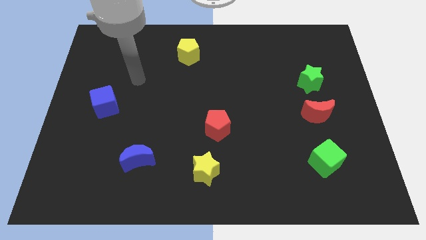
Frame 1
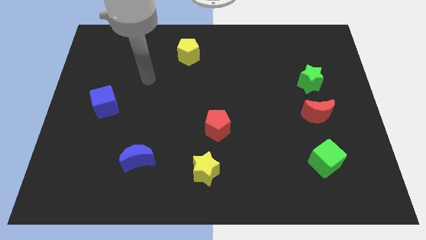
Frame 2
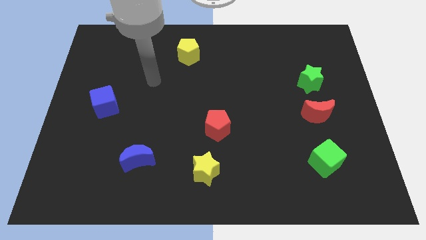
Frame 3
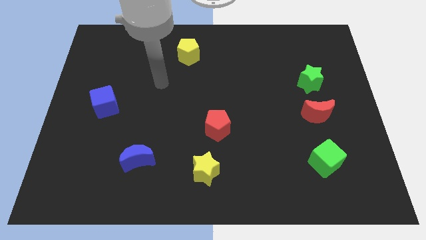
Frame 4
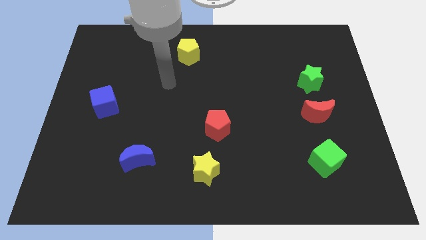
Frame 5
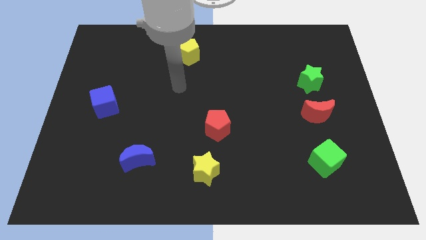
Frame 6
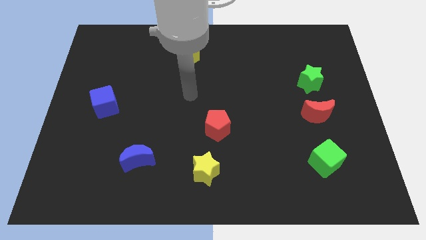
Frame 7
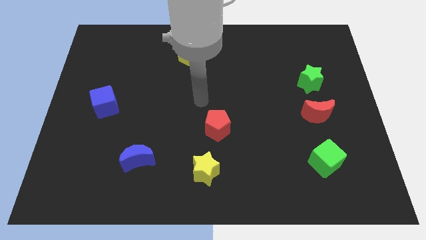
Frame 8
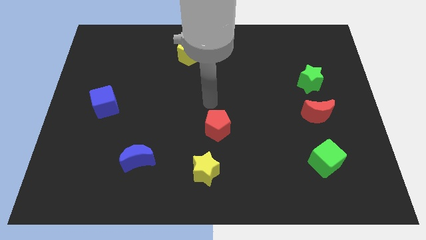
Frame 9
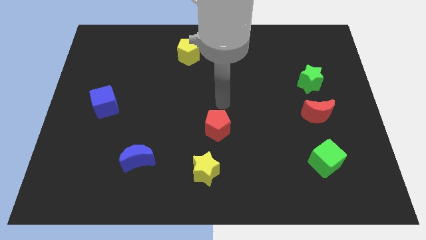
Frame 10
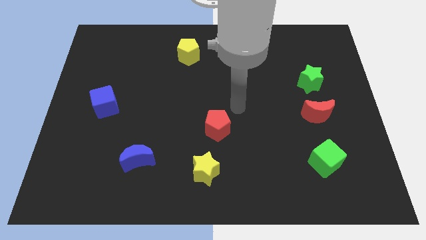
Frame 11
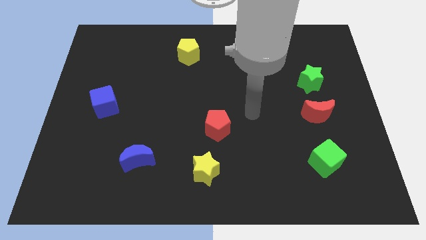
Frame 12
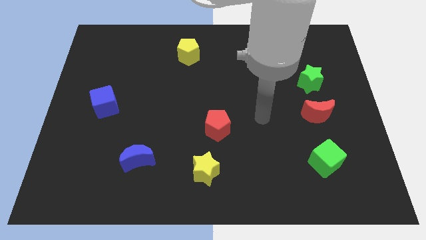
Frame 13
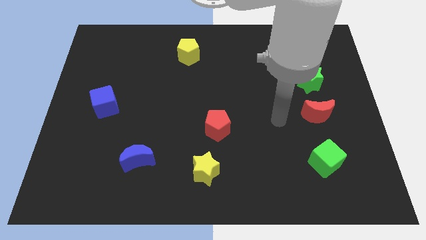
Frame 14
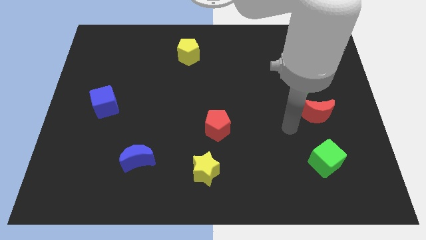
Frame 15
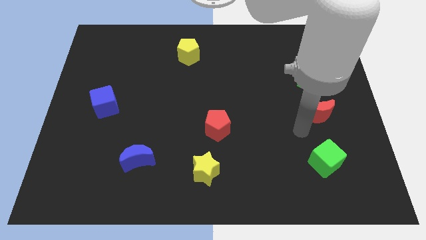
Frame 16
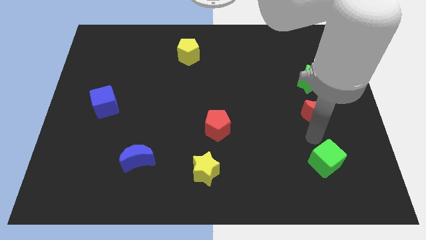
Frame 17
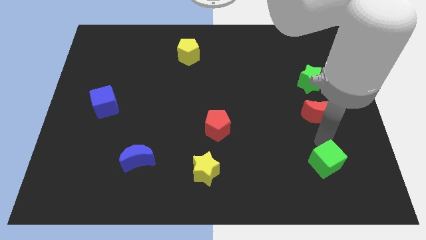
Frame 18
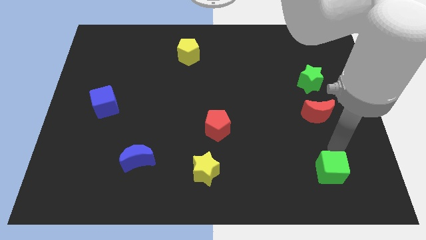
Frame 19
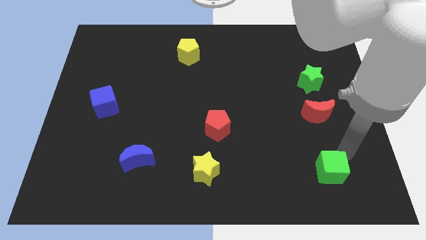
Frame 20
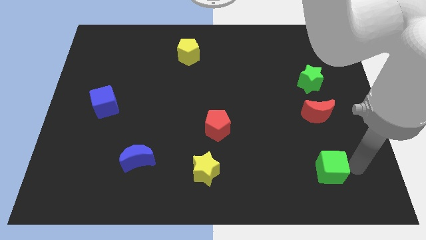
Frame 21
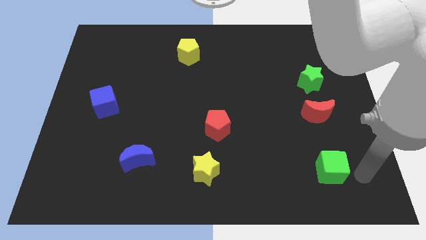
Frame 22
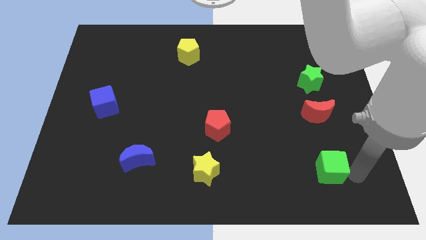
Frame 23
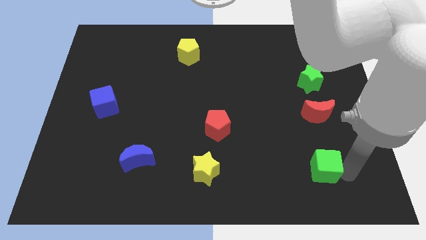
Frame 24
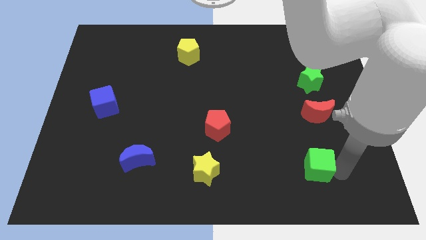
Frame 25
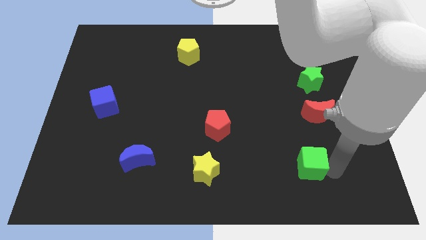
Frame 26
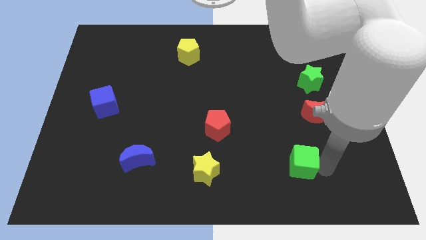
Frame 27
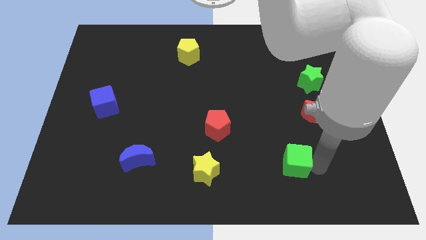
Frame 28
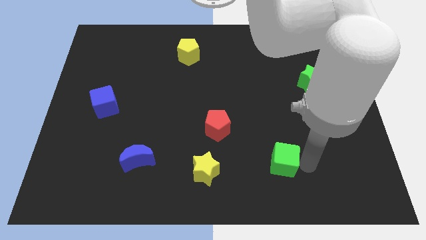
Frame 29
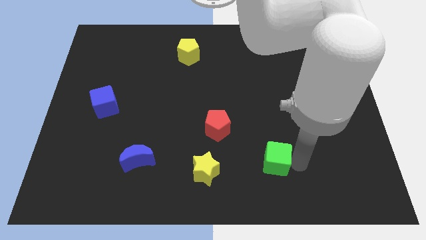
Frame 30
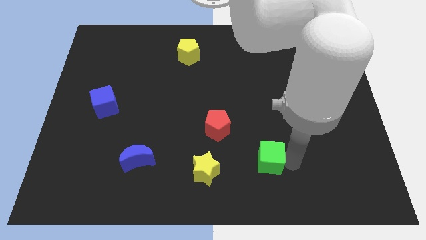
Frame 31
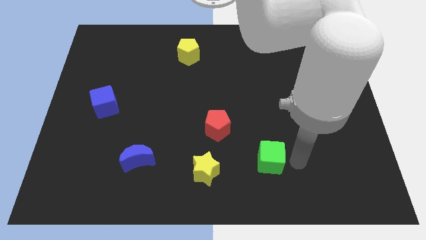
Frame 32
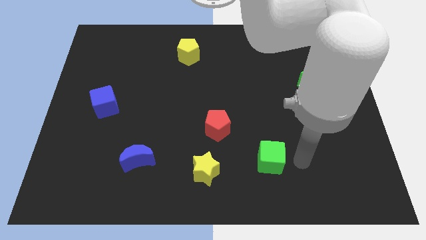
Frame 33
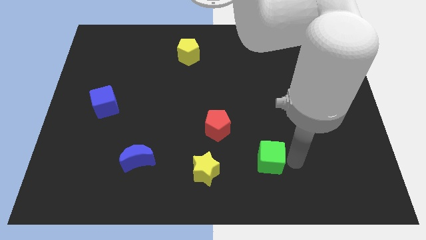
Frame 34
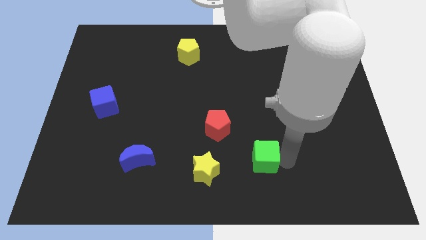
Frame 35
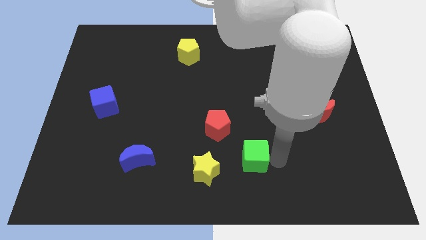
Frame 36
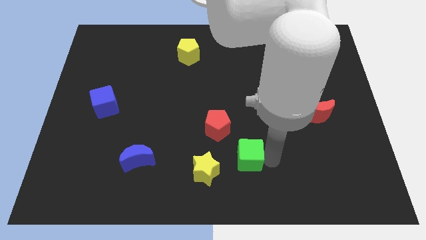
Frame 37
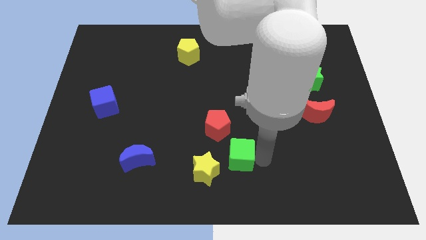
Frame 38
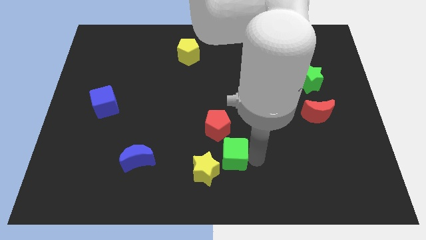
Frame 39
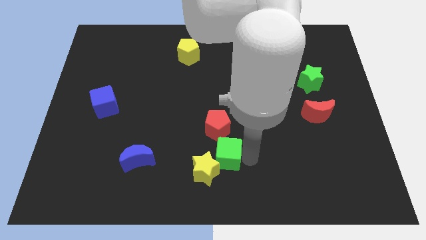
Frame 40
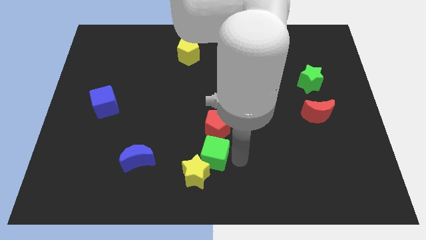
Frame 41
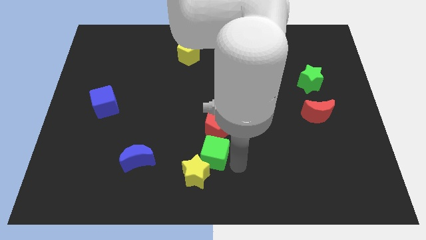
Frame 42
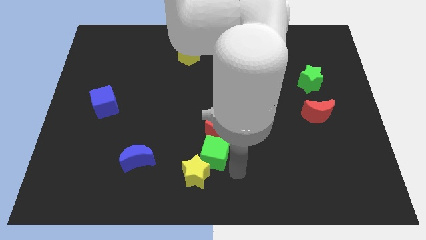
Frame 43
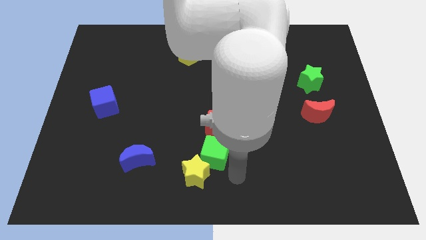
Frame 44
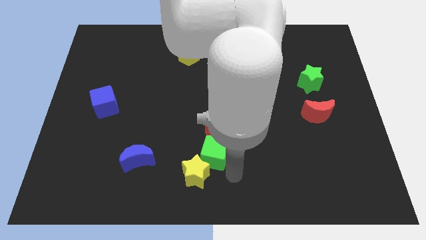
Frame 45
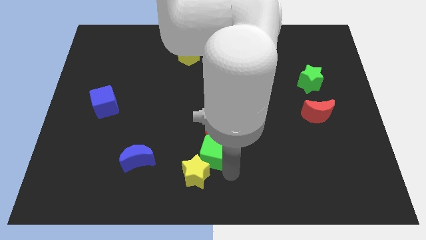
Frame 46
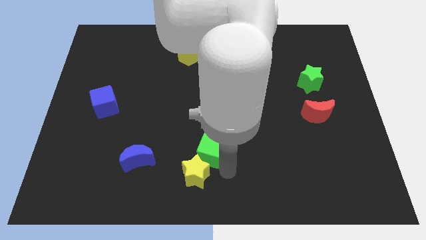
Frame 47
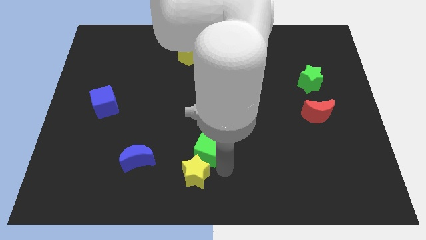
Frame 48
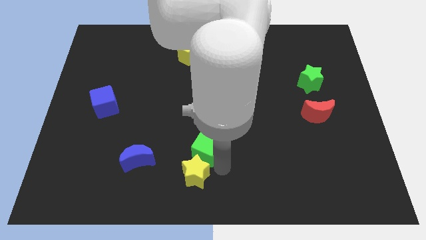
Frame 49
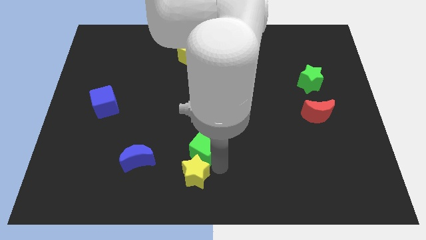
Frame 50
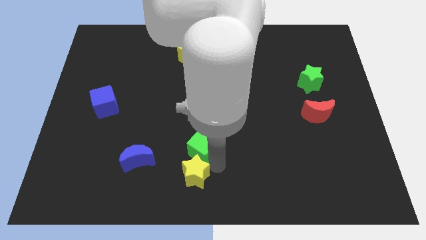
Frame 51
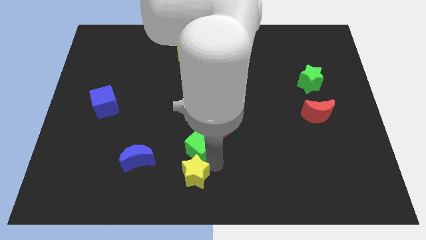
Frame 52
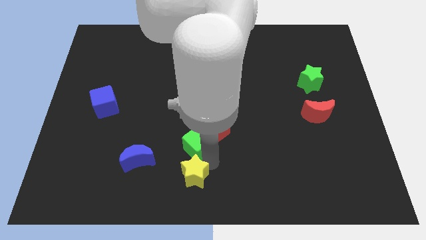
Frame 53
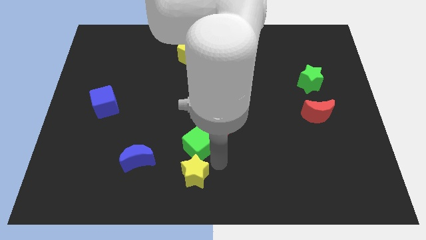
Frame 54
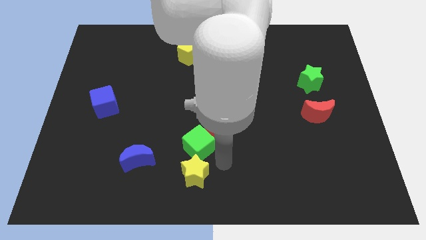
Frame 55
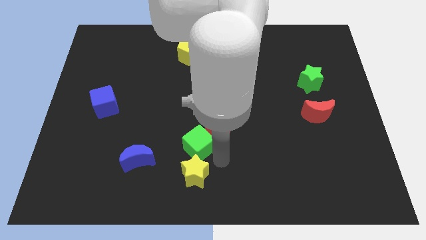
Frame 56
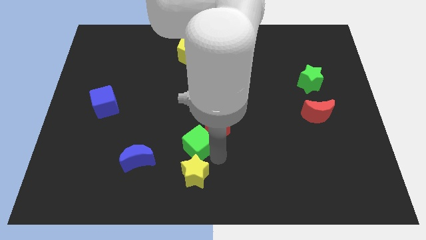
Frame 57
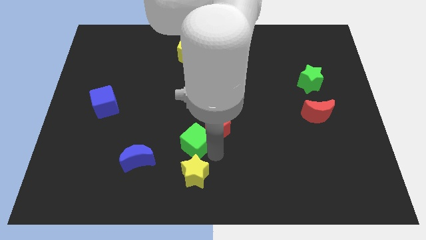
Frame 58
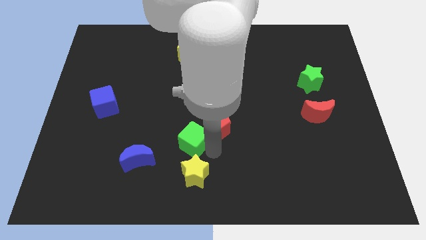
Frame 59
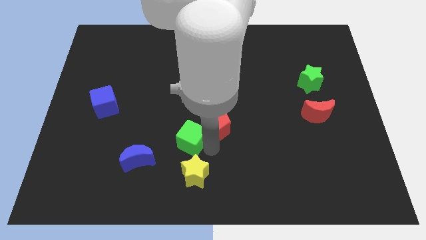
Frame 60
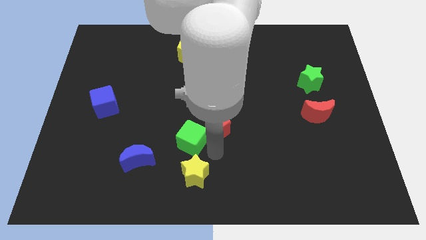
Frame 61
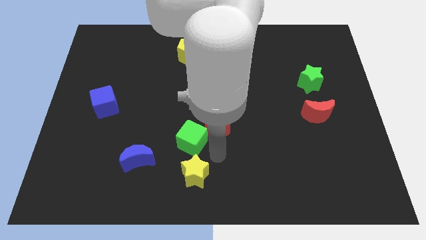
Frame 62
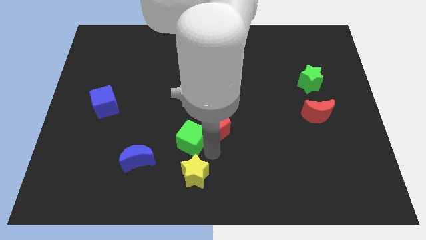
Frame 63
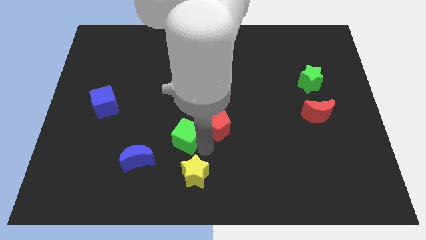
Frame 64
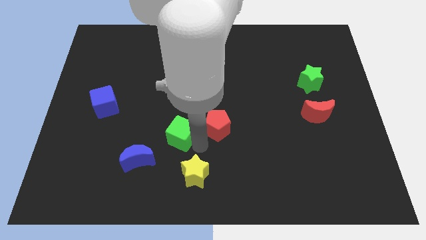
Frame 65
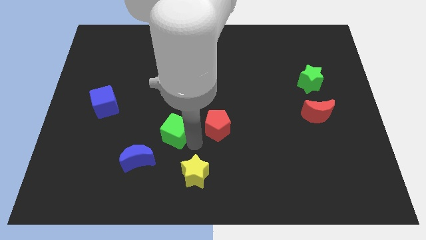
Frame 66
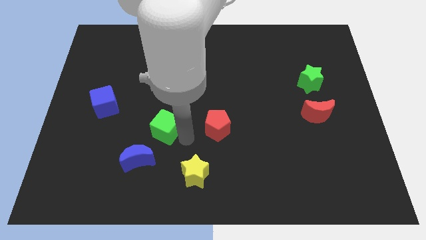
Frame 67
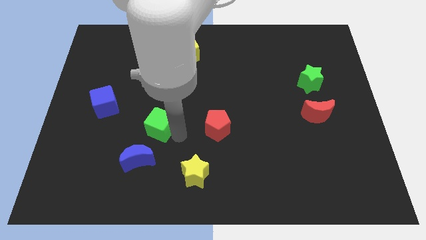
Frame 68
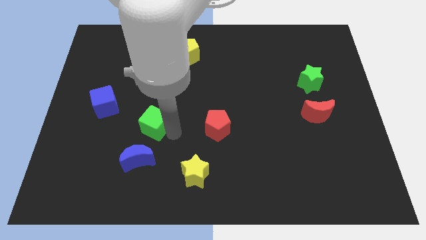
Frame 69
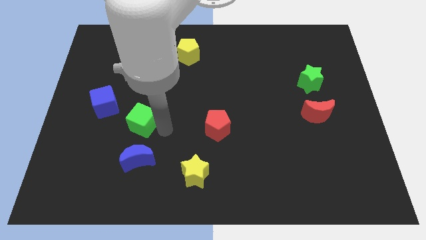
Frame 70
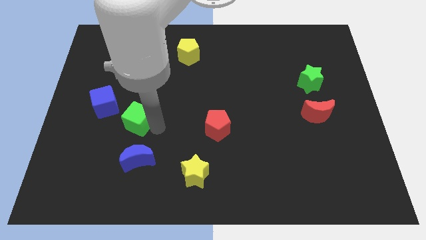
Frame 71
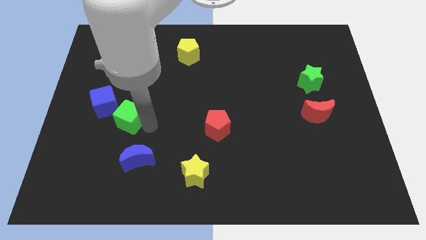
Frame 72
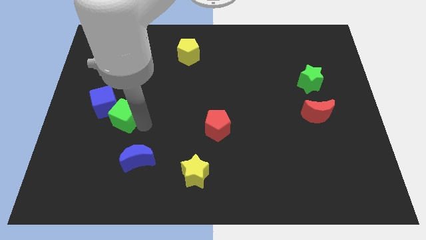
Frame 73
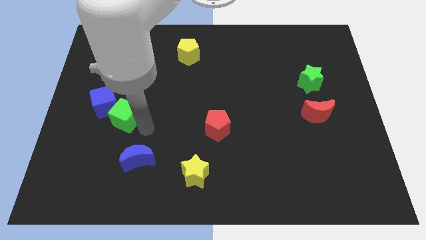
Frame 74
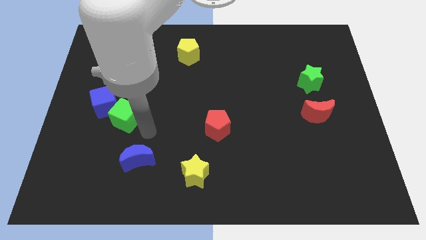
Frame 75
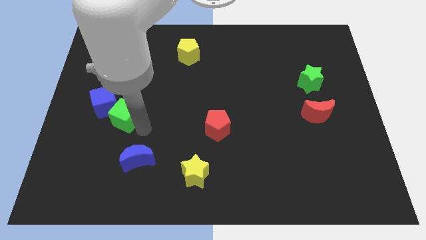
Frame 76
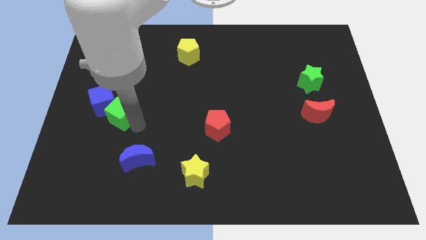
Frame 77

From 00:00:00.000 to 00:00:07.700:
push the green cube close to the blue cube
